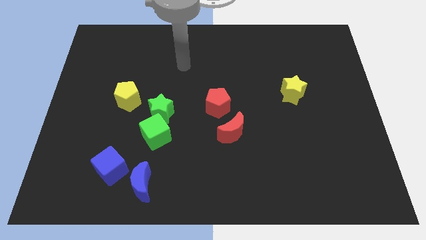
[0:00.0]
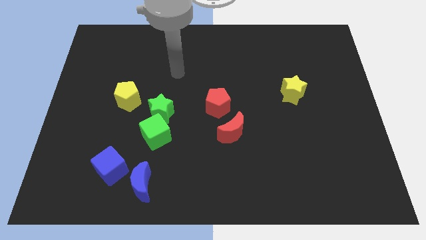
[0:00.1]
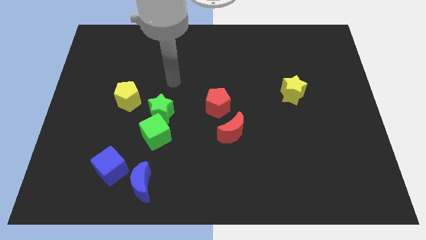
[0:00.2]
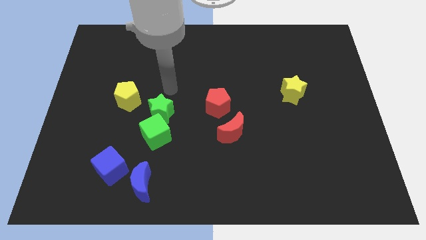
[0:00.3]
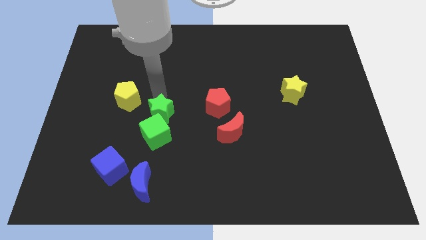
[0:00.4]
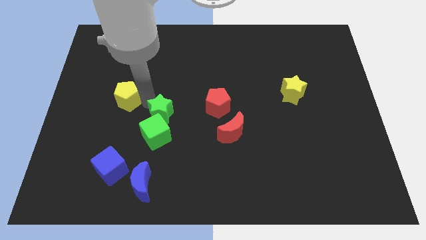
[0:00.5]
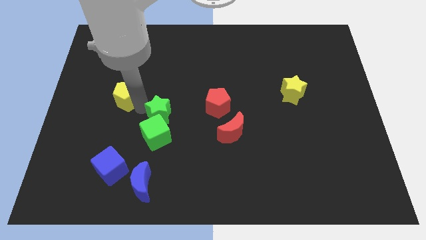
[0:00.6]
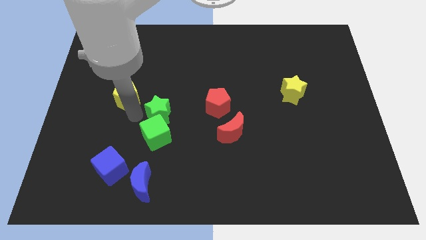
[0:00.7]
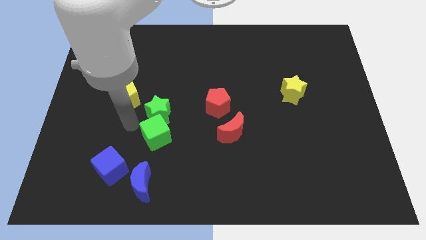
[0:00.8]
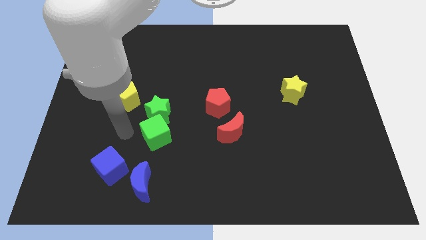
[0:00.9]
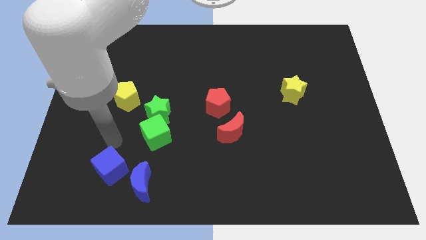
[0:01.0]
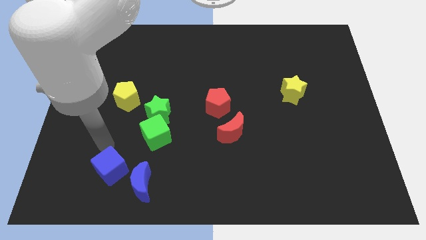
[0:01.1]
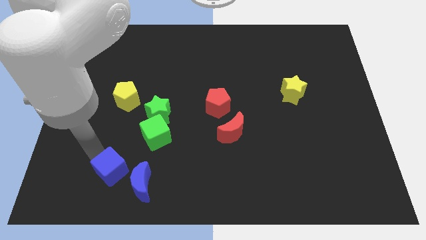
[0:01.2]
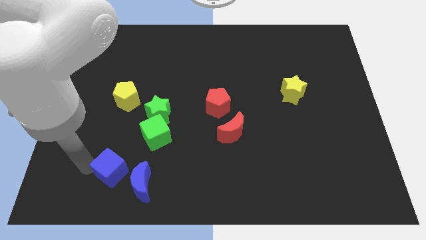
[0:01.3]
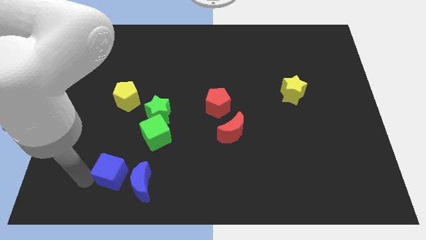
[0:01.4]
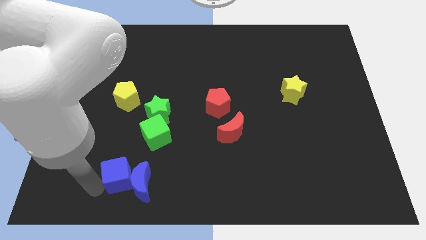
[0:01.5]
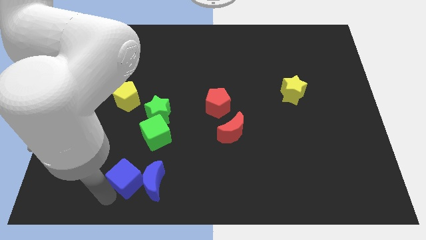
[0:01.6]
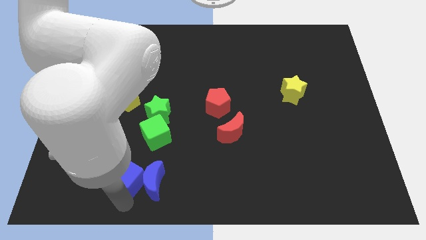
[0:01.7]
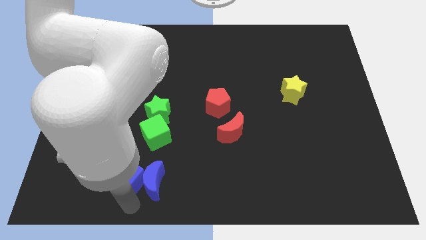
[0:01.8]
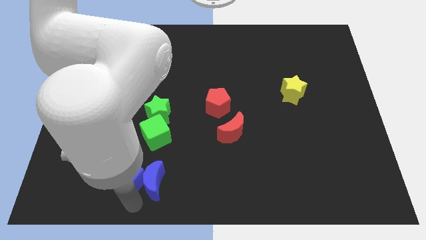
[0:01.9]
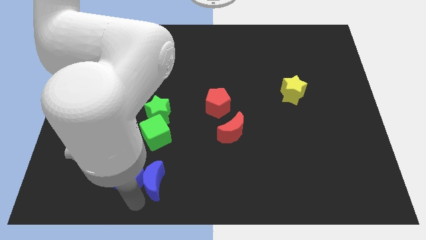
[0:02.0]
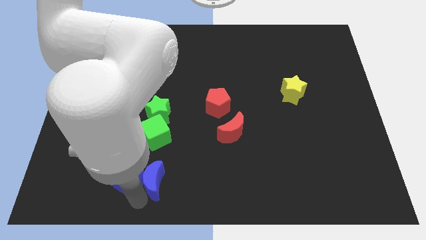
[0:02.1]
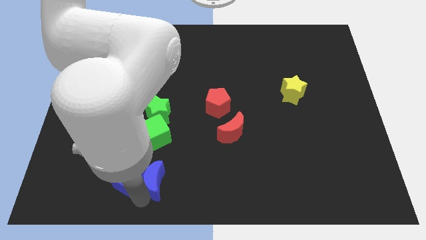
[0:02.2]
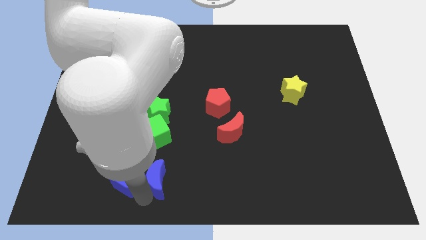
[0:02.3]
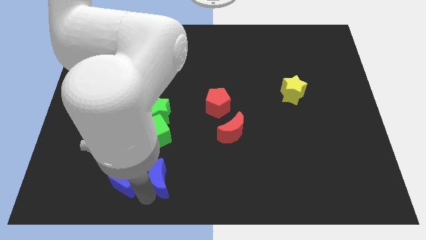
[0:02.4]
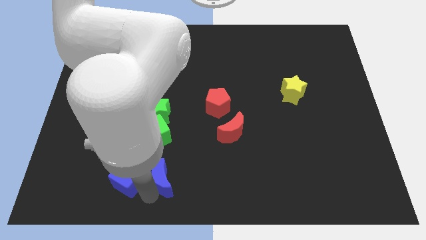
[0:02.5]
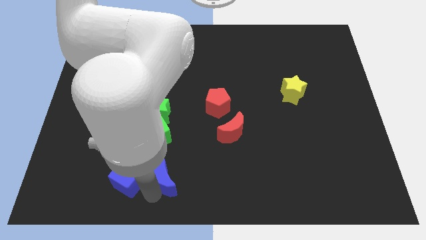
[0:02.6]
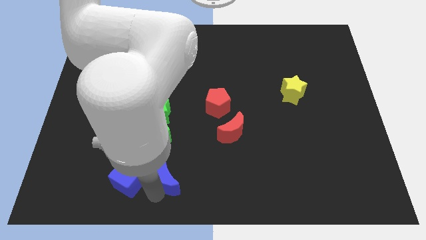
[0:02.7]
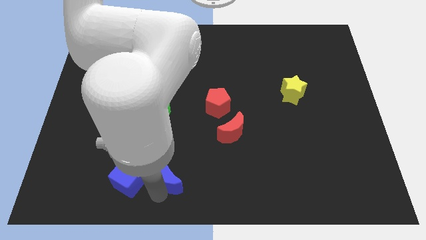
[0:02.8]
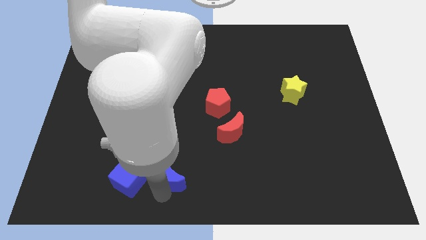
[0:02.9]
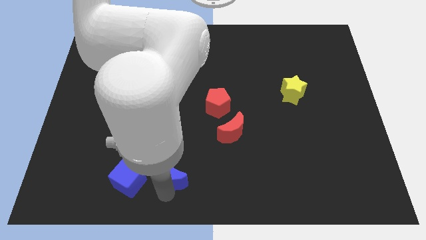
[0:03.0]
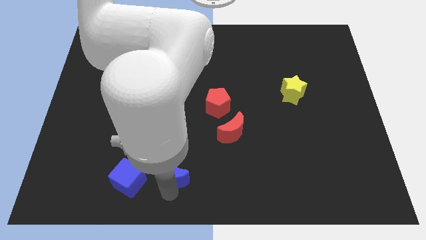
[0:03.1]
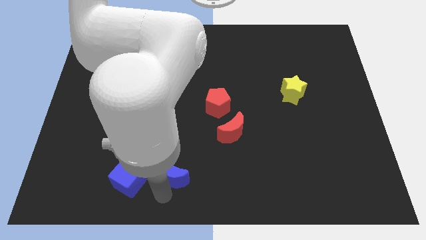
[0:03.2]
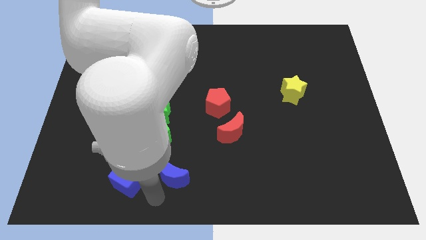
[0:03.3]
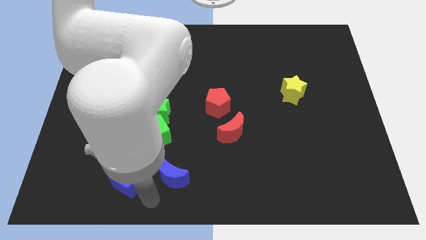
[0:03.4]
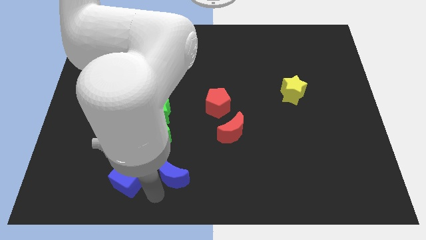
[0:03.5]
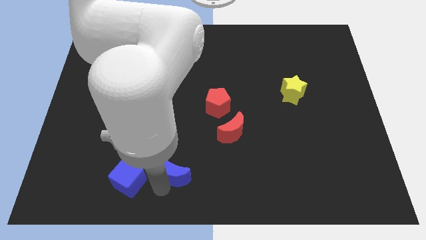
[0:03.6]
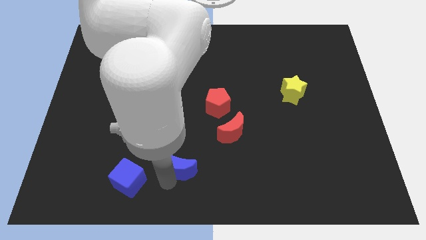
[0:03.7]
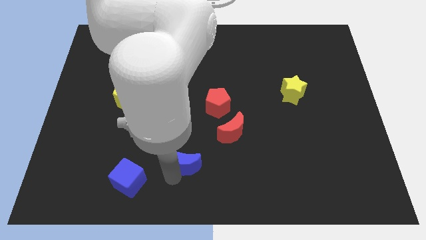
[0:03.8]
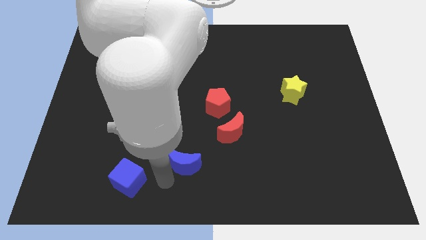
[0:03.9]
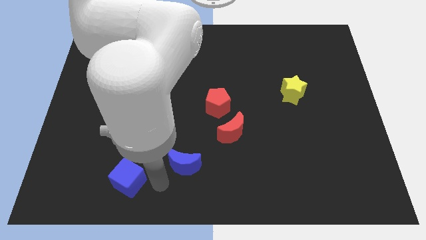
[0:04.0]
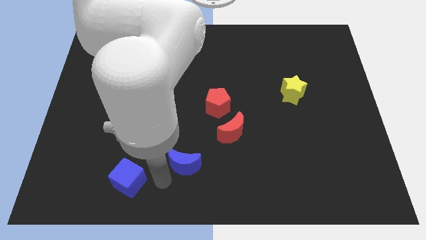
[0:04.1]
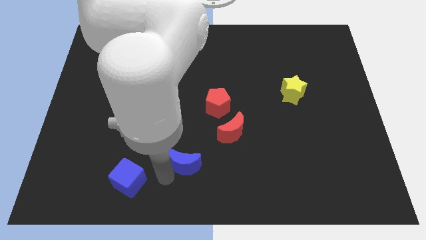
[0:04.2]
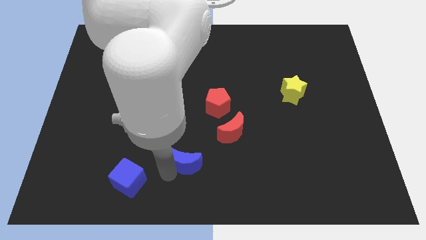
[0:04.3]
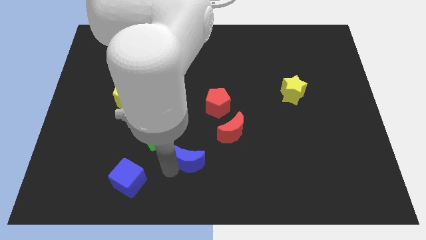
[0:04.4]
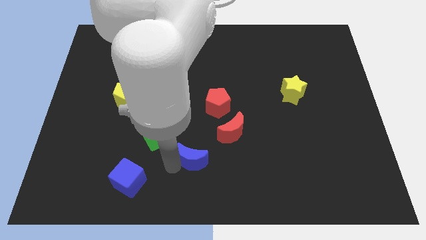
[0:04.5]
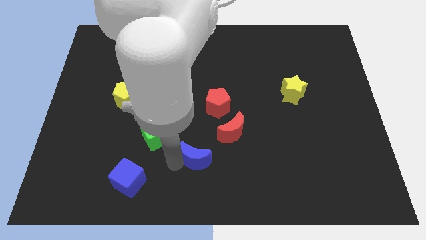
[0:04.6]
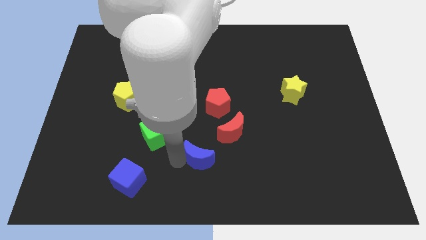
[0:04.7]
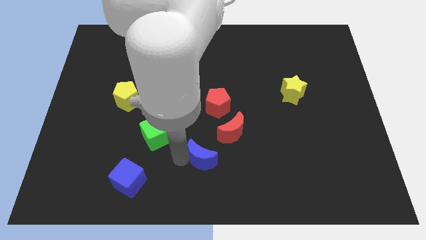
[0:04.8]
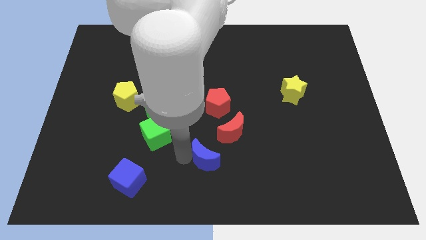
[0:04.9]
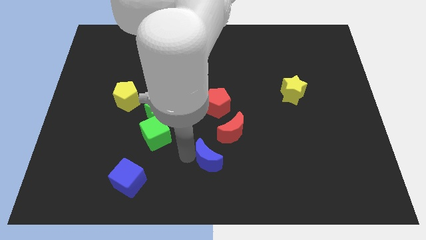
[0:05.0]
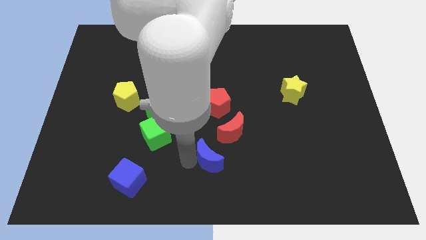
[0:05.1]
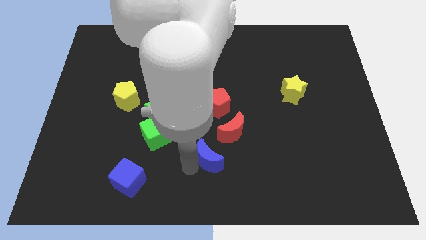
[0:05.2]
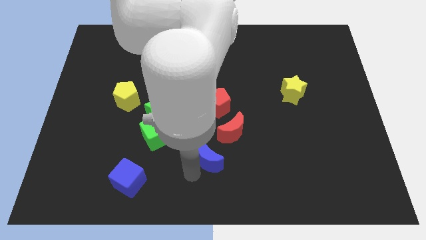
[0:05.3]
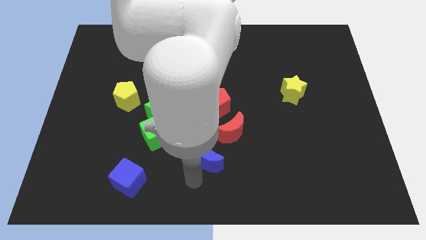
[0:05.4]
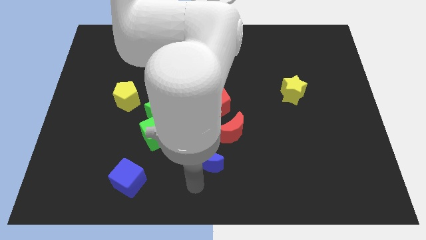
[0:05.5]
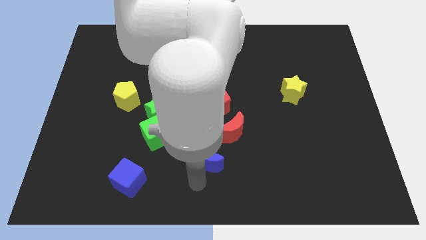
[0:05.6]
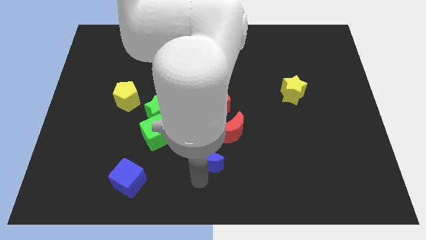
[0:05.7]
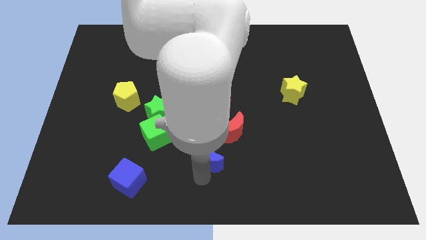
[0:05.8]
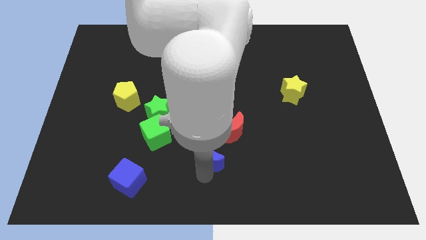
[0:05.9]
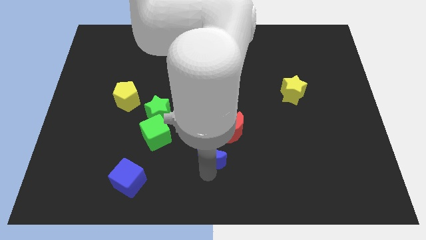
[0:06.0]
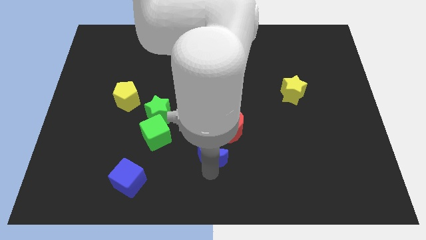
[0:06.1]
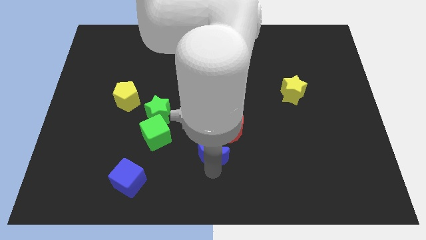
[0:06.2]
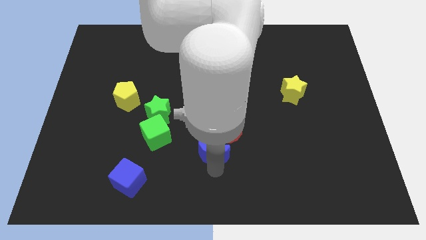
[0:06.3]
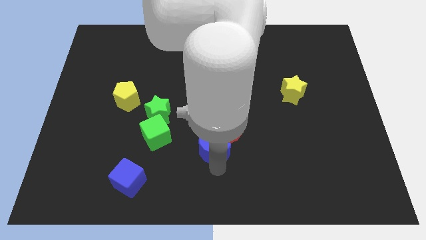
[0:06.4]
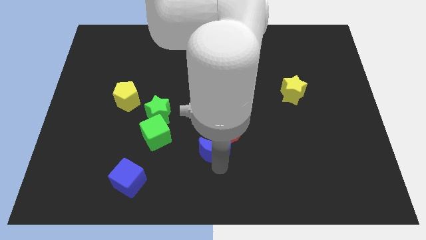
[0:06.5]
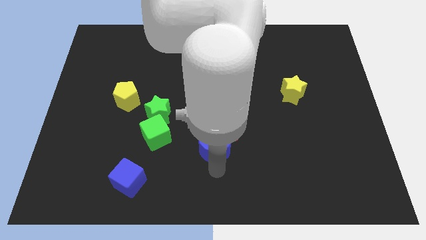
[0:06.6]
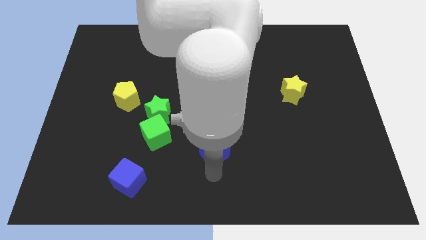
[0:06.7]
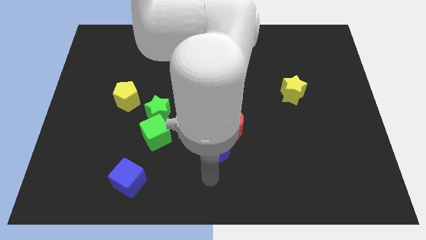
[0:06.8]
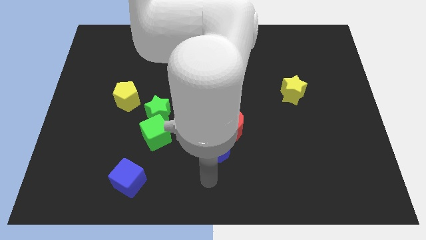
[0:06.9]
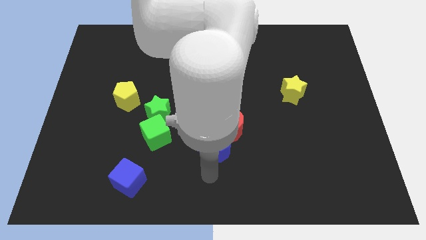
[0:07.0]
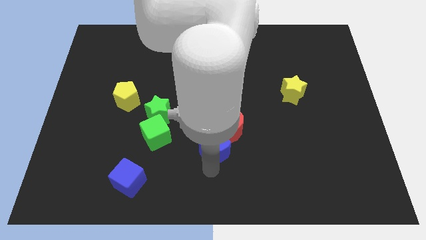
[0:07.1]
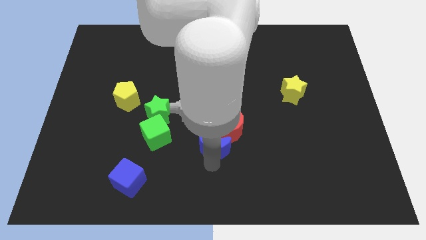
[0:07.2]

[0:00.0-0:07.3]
move the blue moon close to the red moon

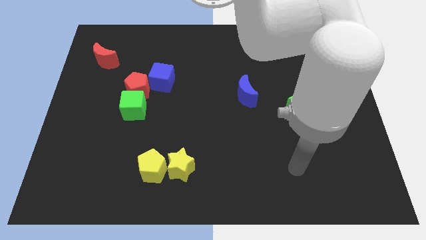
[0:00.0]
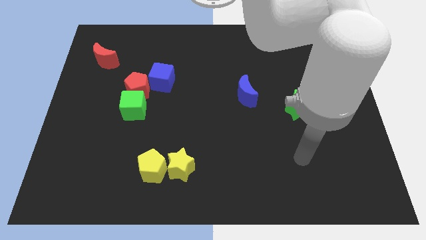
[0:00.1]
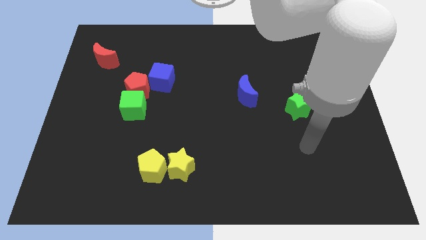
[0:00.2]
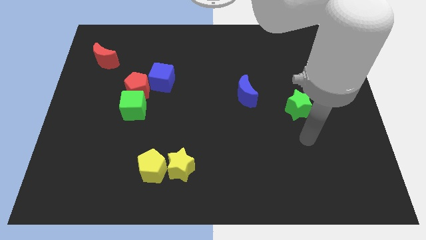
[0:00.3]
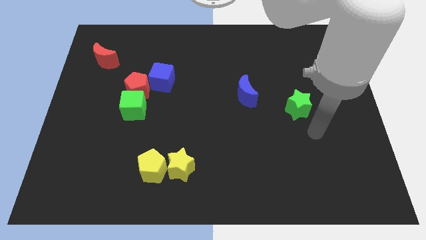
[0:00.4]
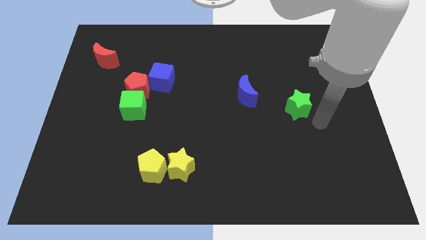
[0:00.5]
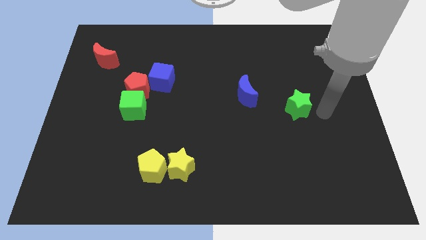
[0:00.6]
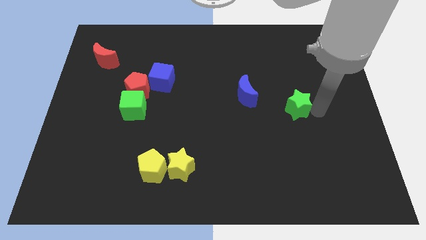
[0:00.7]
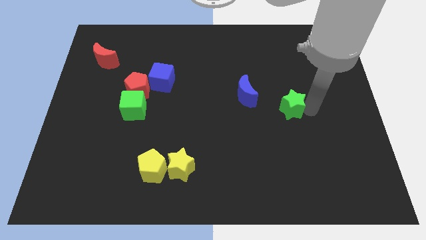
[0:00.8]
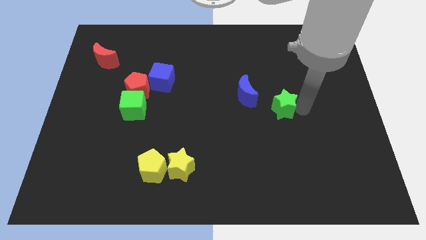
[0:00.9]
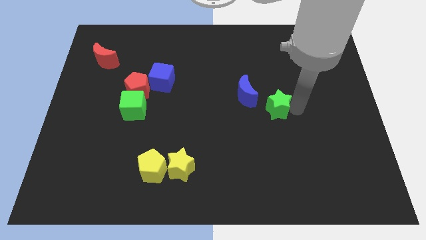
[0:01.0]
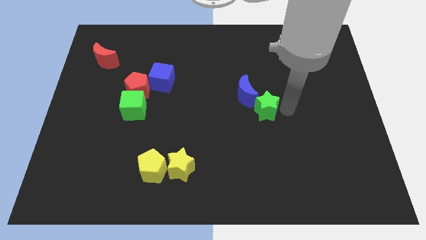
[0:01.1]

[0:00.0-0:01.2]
slide the green star to the blue moon
